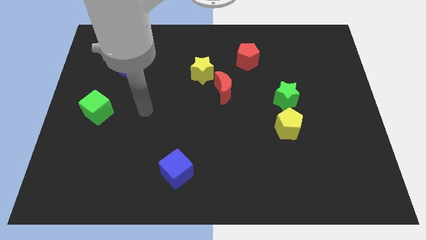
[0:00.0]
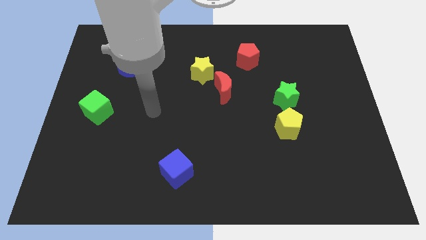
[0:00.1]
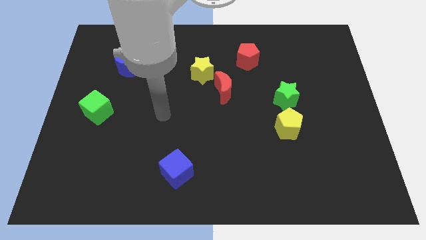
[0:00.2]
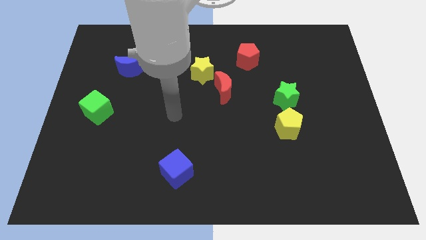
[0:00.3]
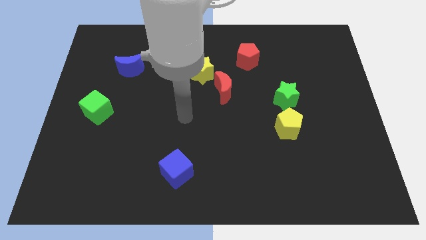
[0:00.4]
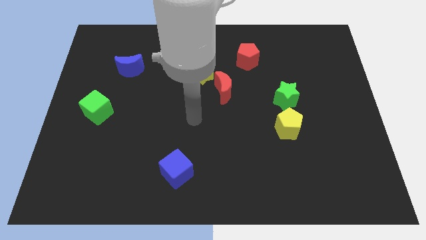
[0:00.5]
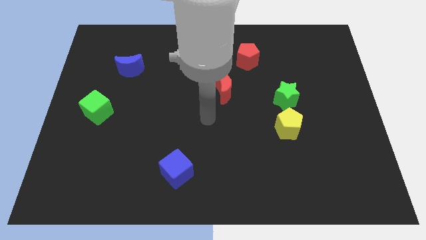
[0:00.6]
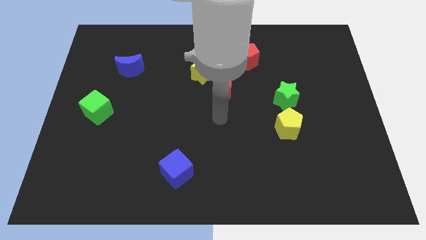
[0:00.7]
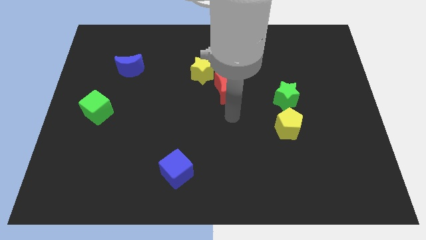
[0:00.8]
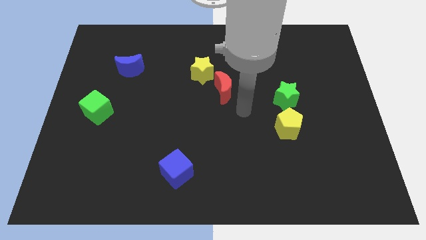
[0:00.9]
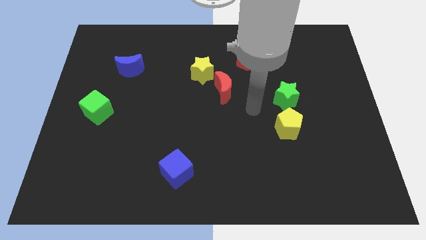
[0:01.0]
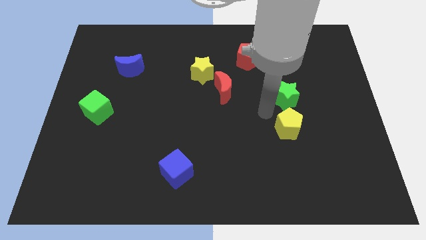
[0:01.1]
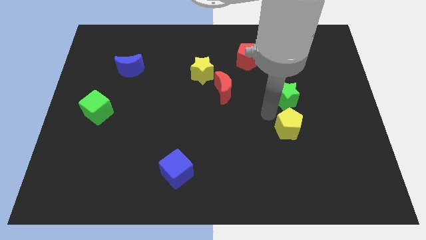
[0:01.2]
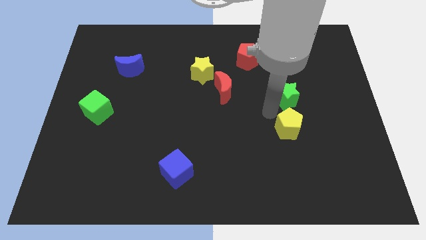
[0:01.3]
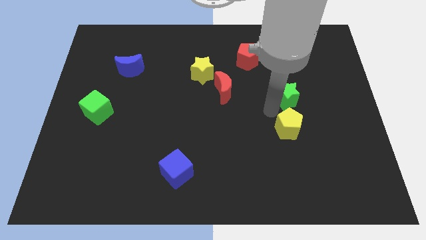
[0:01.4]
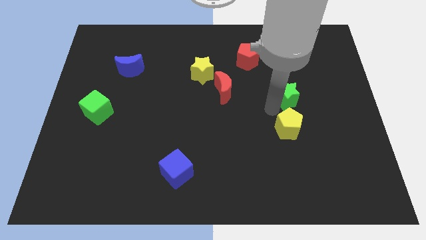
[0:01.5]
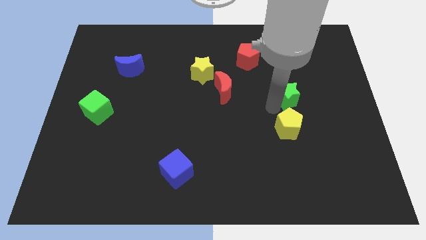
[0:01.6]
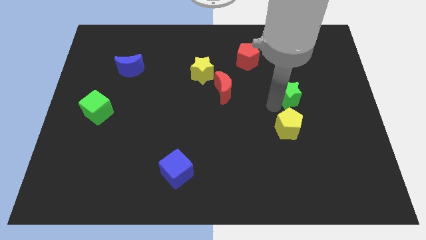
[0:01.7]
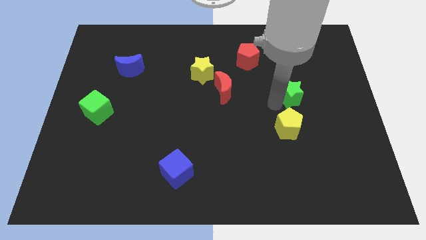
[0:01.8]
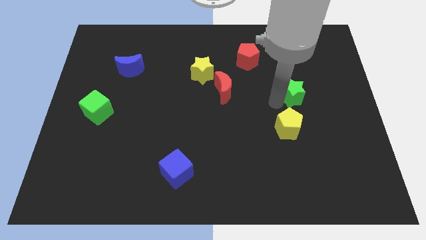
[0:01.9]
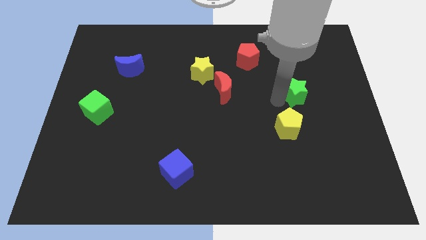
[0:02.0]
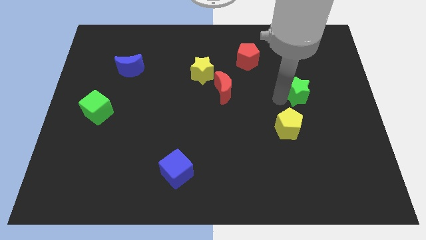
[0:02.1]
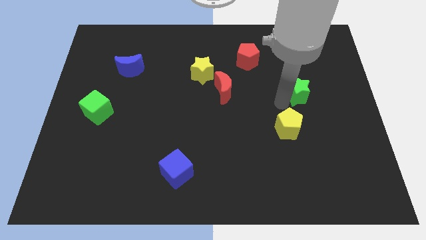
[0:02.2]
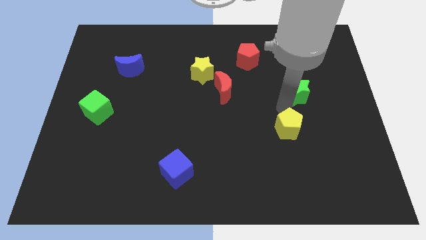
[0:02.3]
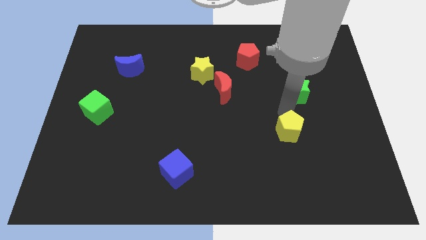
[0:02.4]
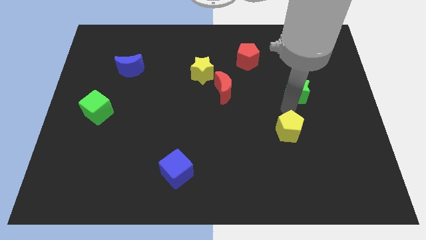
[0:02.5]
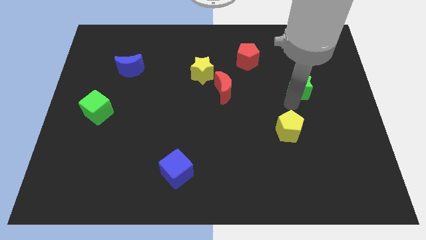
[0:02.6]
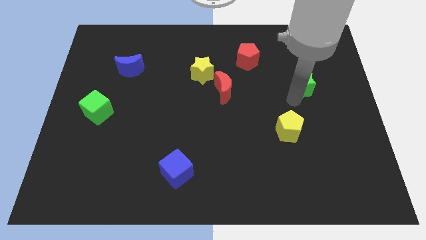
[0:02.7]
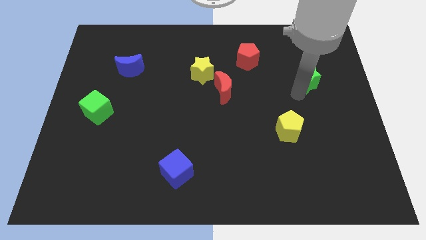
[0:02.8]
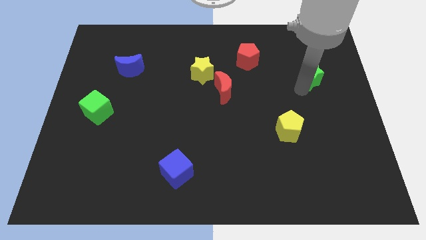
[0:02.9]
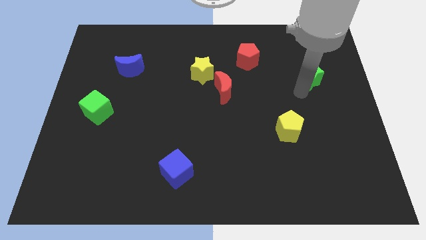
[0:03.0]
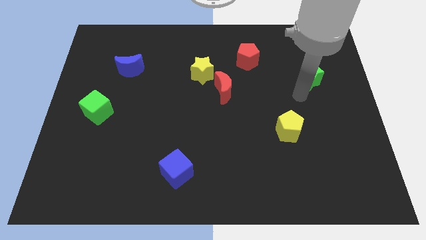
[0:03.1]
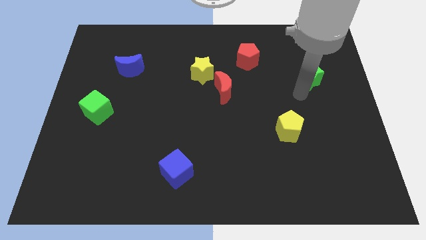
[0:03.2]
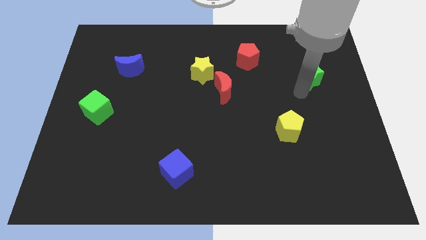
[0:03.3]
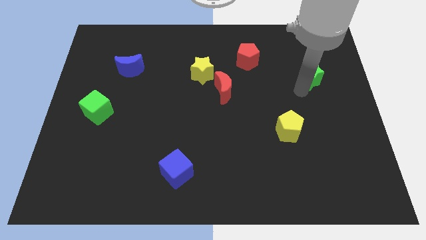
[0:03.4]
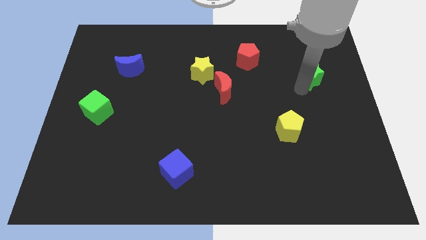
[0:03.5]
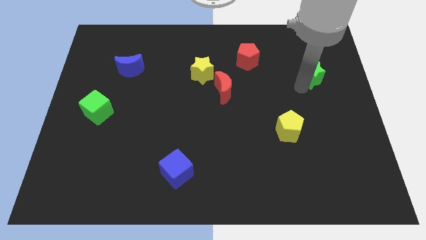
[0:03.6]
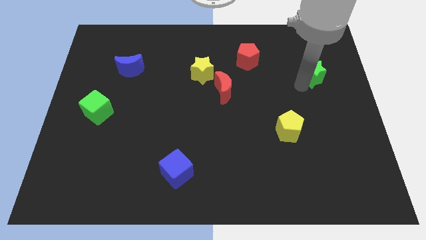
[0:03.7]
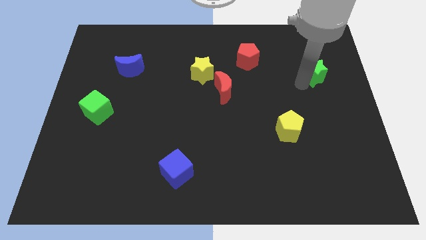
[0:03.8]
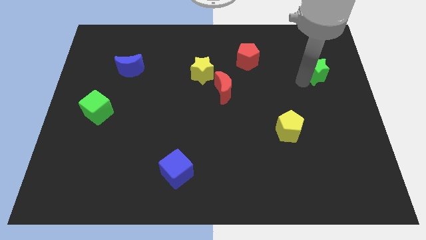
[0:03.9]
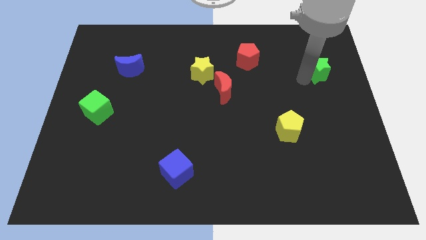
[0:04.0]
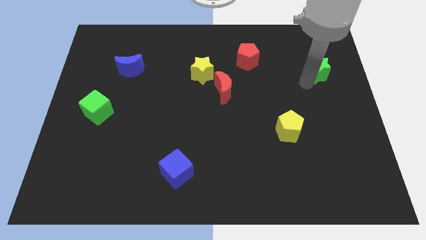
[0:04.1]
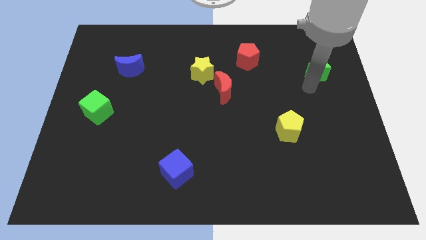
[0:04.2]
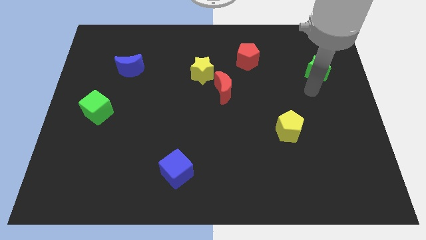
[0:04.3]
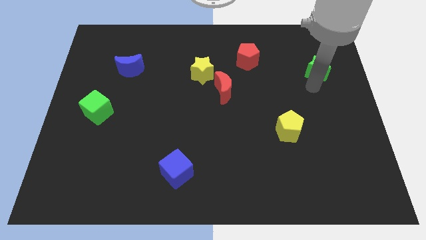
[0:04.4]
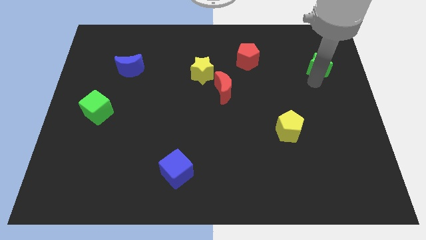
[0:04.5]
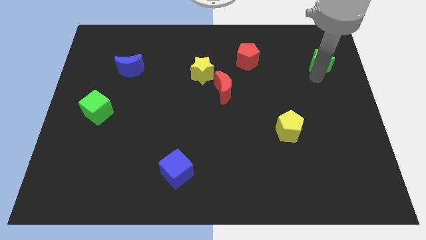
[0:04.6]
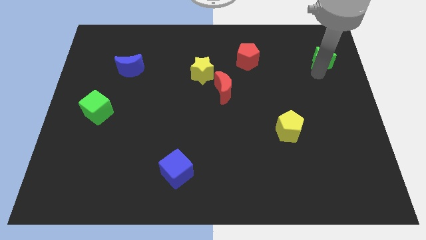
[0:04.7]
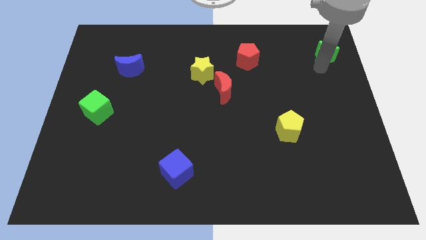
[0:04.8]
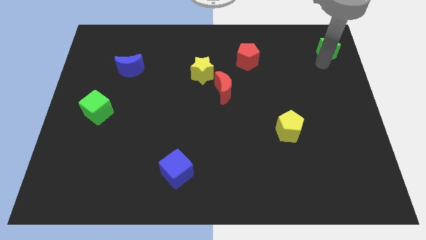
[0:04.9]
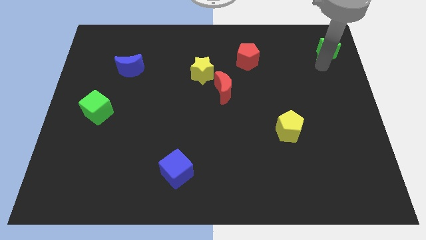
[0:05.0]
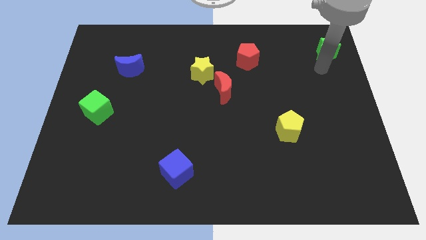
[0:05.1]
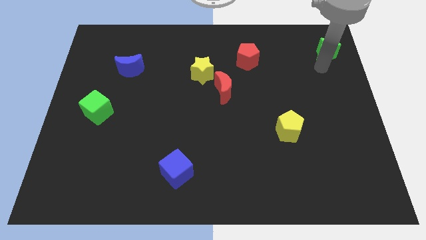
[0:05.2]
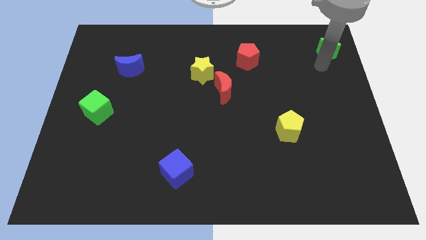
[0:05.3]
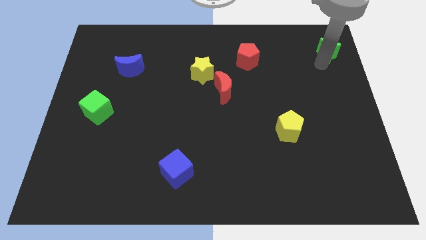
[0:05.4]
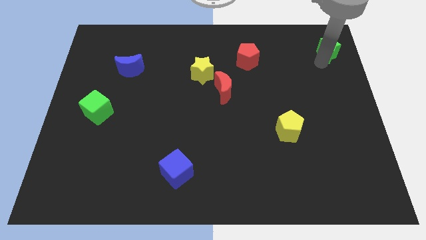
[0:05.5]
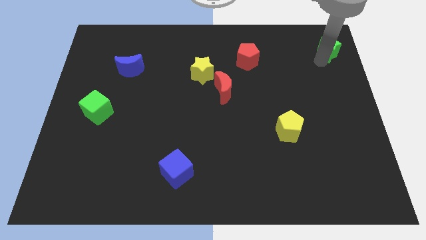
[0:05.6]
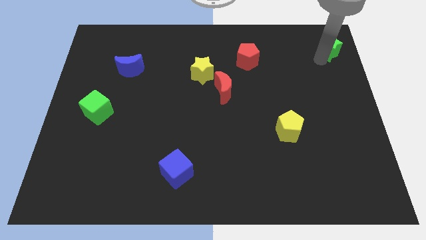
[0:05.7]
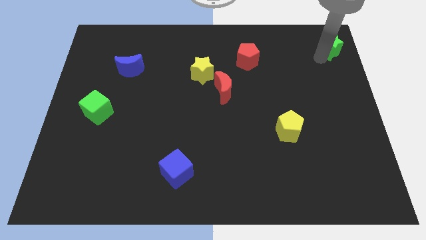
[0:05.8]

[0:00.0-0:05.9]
move the green star to the upper right corner

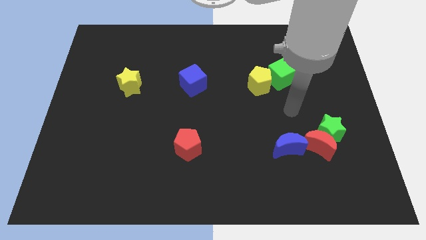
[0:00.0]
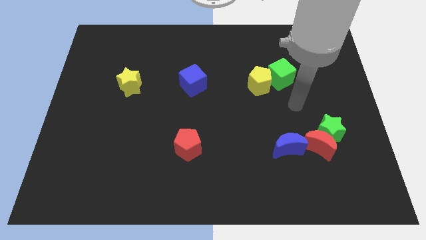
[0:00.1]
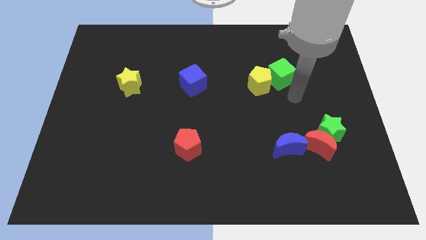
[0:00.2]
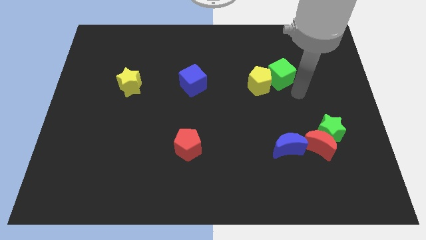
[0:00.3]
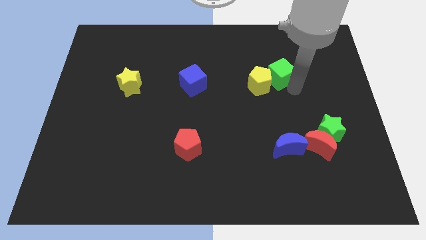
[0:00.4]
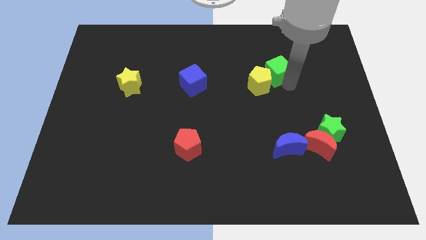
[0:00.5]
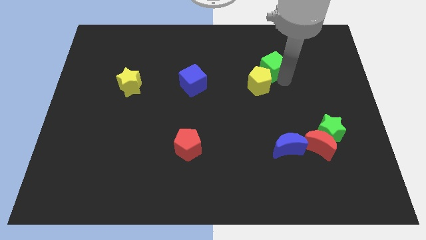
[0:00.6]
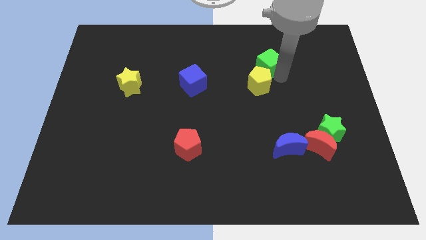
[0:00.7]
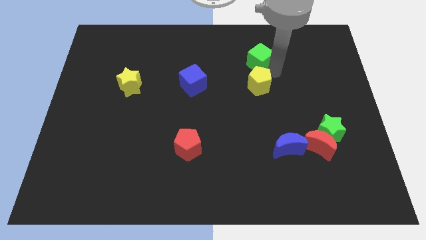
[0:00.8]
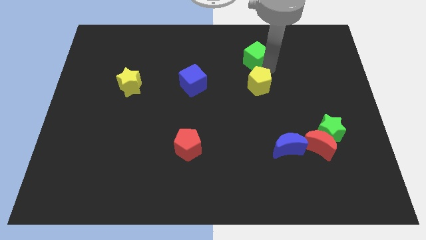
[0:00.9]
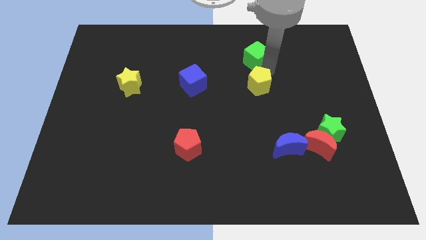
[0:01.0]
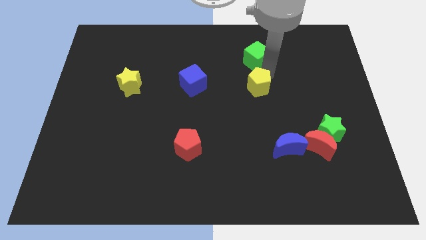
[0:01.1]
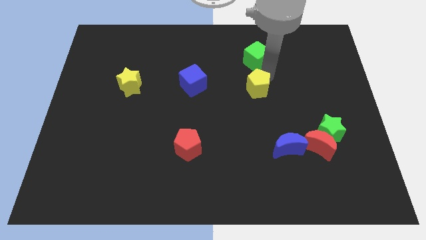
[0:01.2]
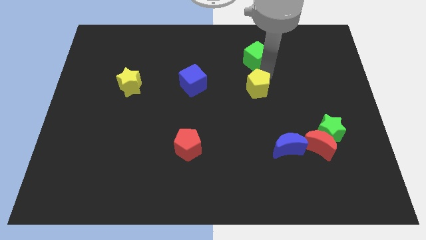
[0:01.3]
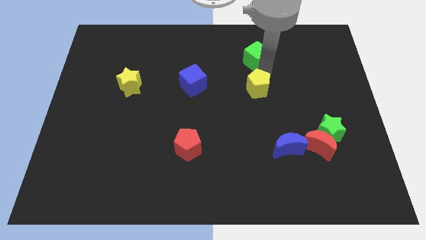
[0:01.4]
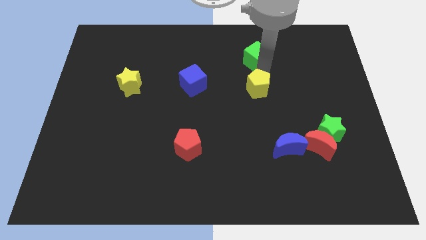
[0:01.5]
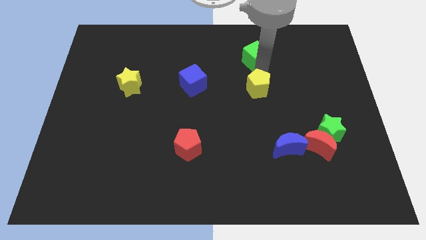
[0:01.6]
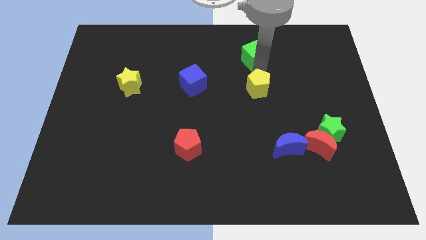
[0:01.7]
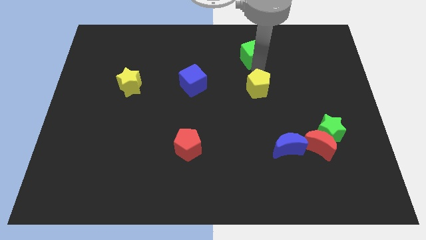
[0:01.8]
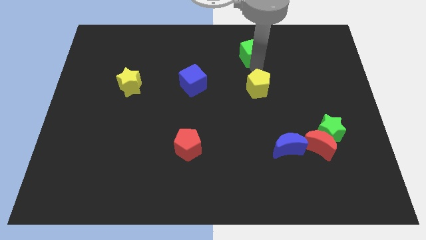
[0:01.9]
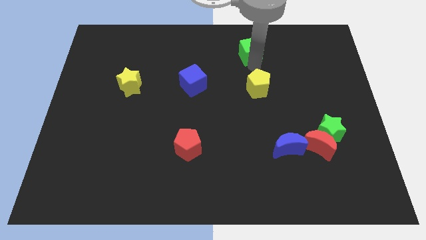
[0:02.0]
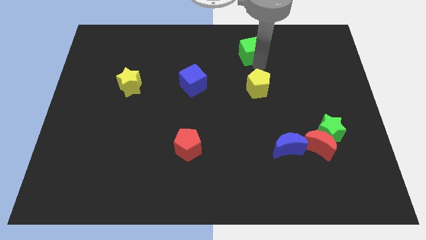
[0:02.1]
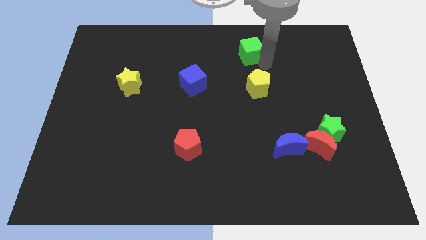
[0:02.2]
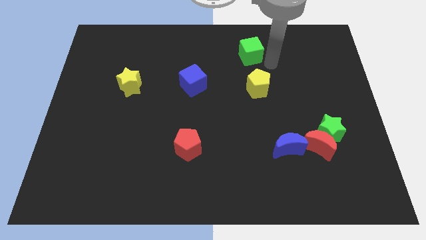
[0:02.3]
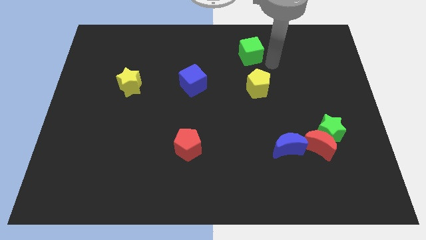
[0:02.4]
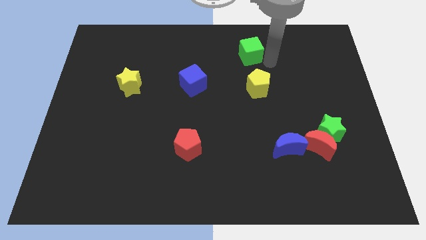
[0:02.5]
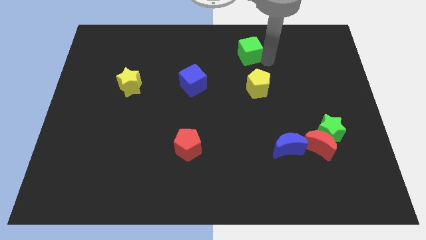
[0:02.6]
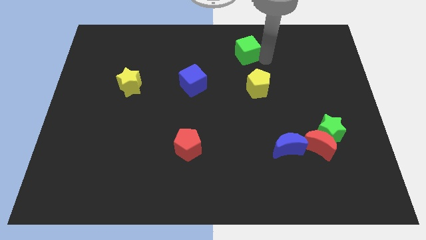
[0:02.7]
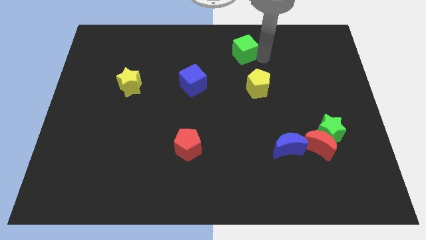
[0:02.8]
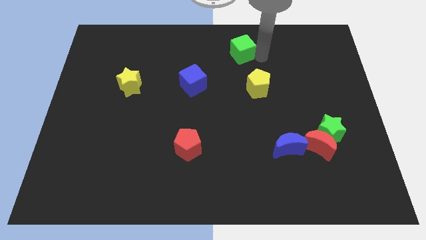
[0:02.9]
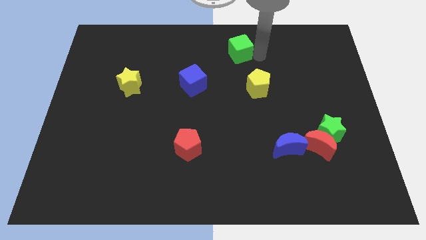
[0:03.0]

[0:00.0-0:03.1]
push the green cube to the top
